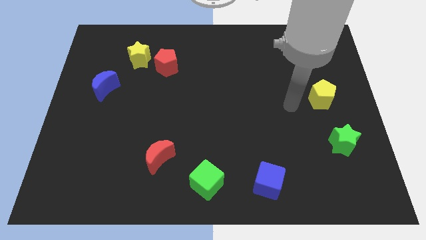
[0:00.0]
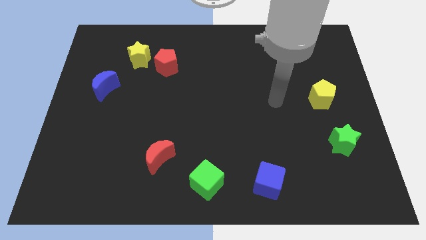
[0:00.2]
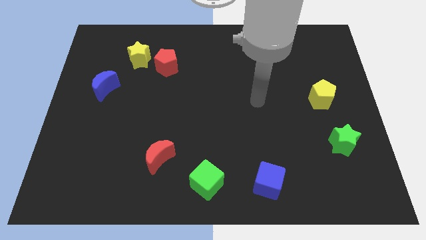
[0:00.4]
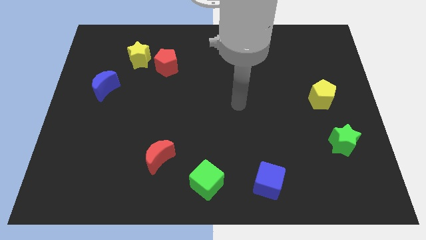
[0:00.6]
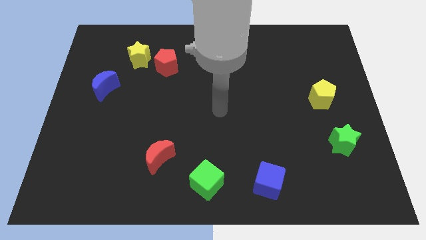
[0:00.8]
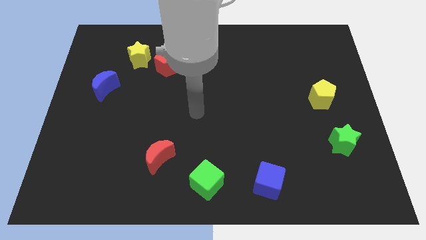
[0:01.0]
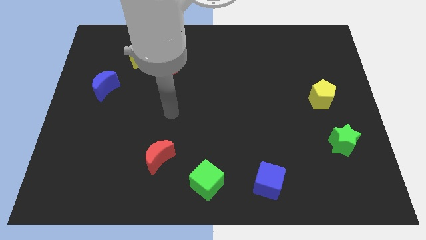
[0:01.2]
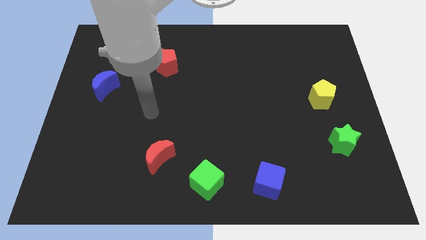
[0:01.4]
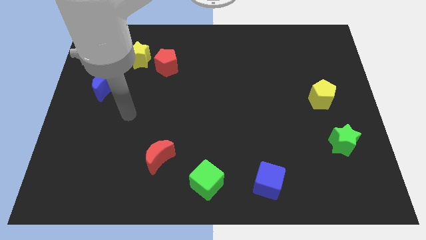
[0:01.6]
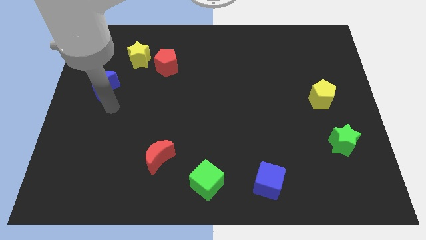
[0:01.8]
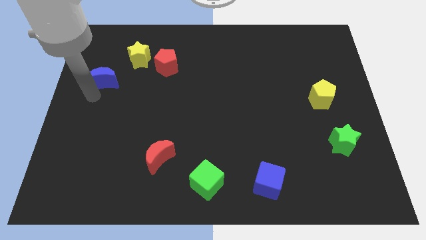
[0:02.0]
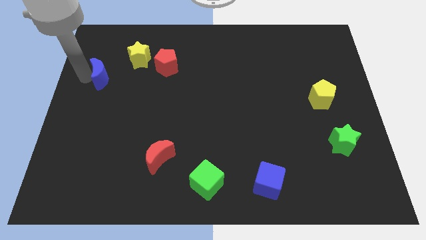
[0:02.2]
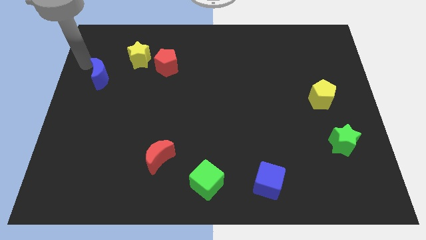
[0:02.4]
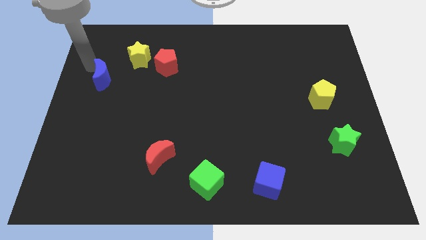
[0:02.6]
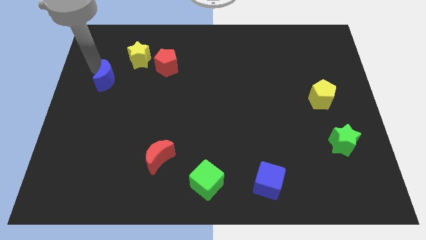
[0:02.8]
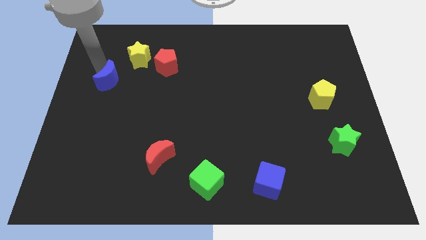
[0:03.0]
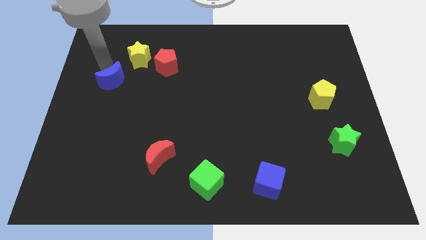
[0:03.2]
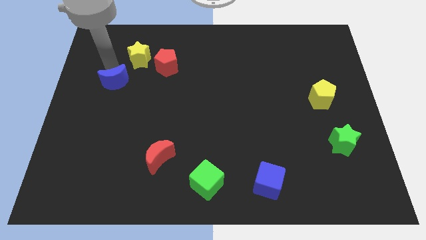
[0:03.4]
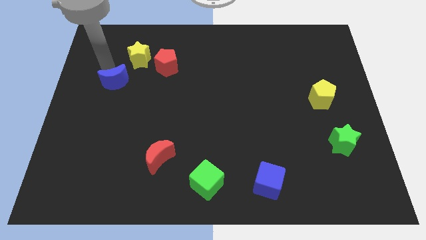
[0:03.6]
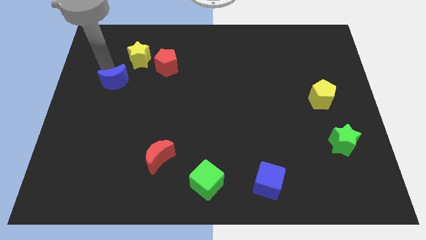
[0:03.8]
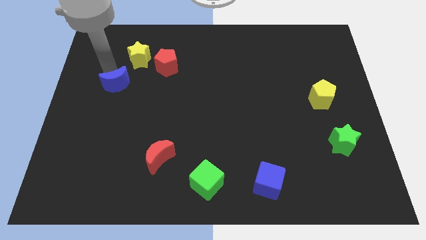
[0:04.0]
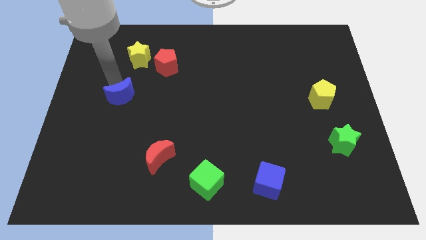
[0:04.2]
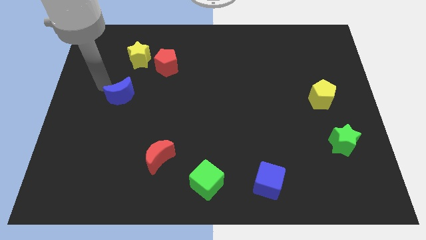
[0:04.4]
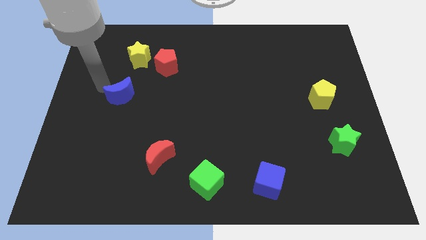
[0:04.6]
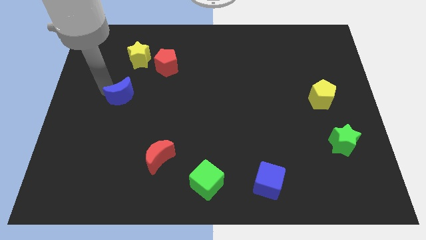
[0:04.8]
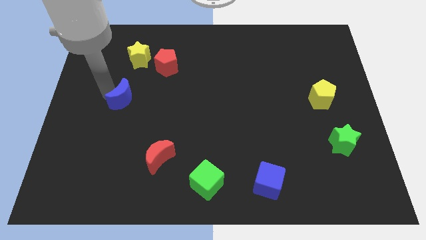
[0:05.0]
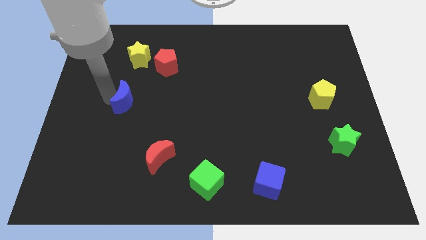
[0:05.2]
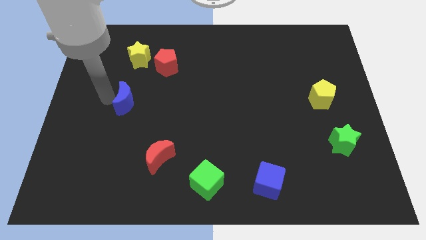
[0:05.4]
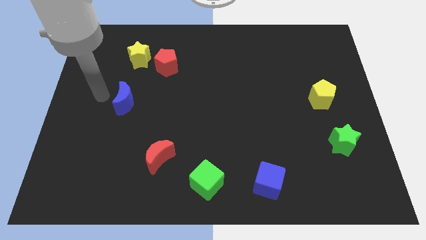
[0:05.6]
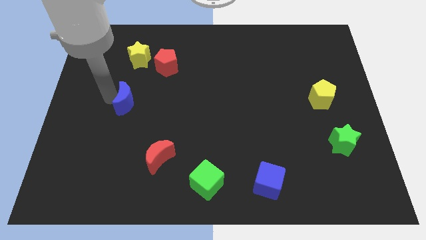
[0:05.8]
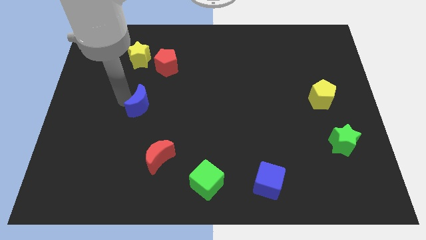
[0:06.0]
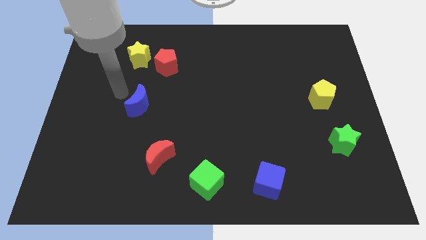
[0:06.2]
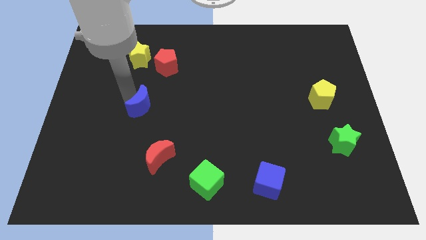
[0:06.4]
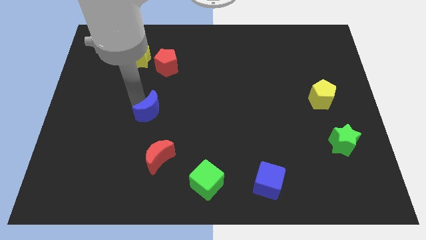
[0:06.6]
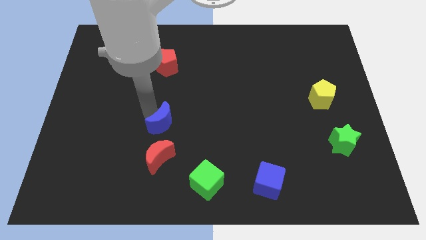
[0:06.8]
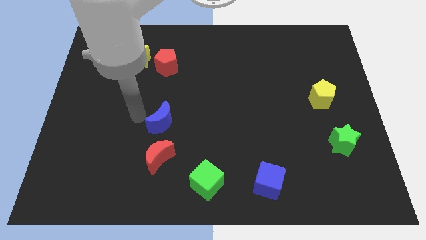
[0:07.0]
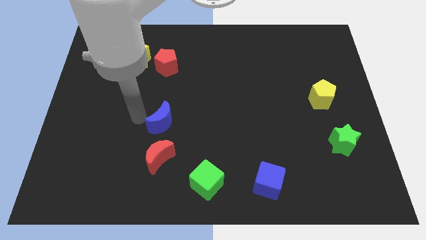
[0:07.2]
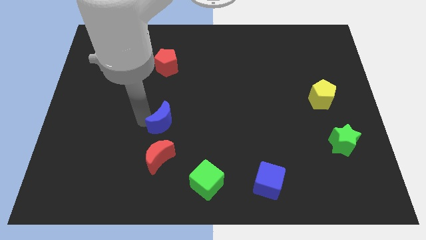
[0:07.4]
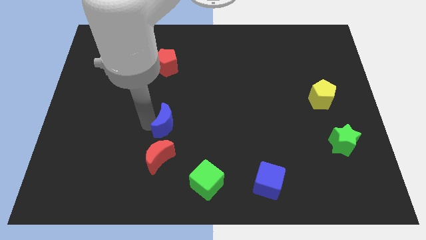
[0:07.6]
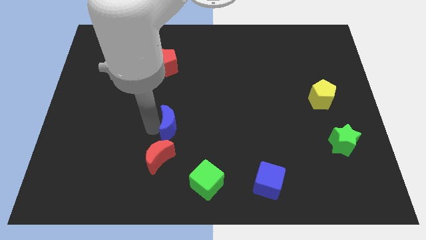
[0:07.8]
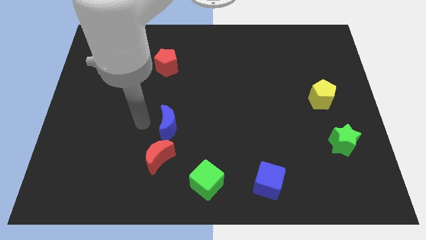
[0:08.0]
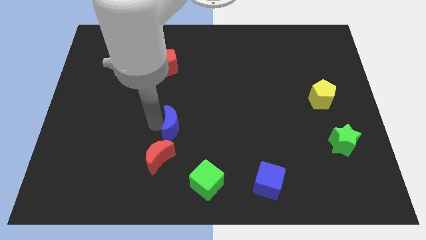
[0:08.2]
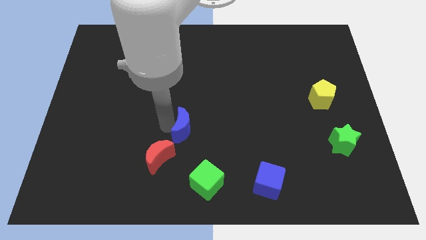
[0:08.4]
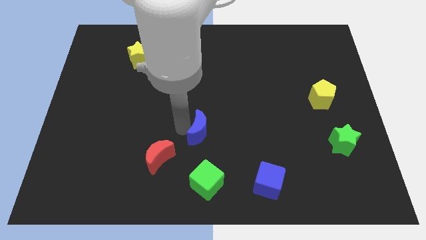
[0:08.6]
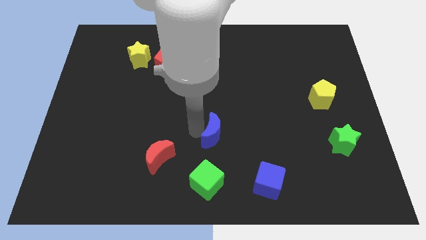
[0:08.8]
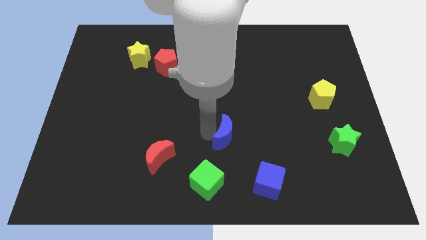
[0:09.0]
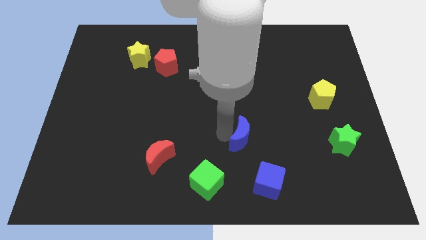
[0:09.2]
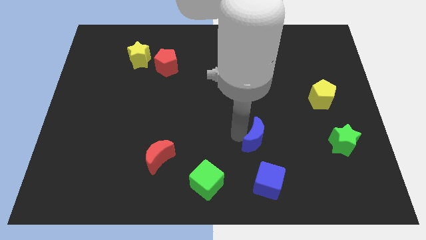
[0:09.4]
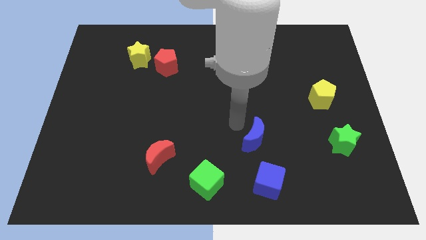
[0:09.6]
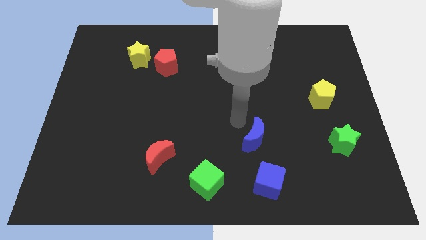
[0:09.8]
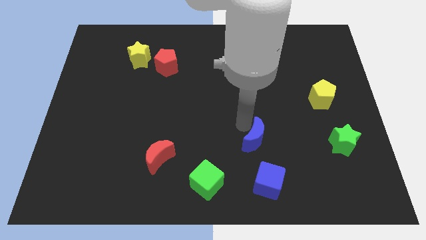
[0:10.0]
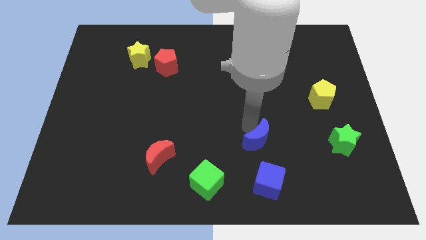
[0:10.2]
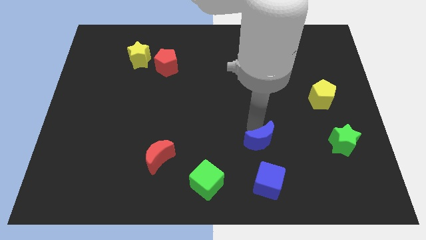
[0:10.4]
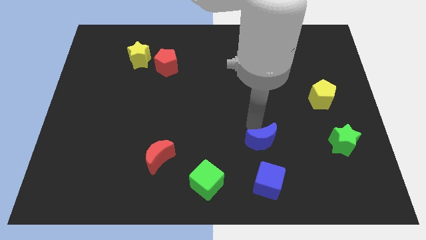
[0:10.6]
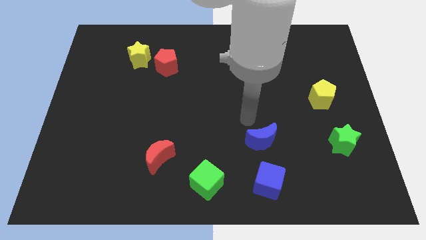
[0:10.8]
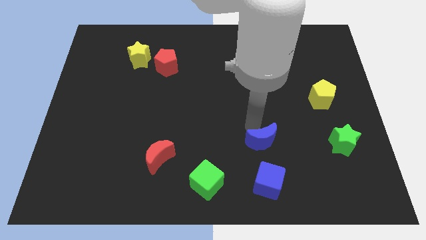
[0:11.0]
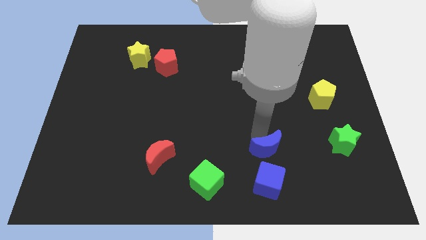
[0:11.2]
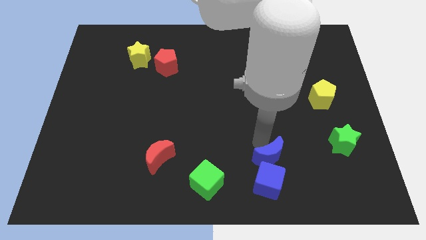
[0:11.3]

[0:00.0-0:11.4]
move the blue moon to the top right side of the blue cube
